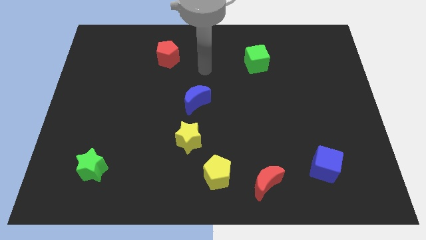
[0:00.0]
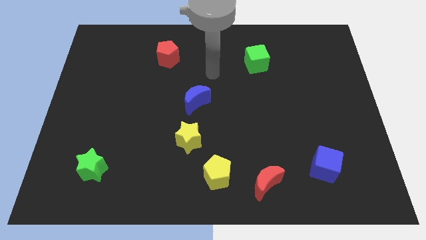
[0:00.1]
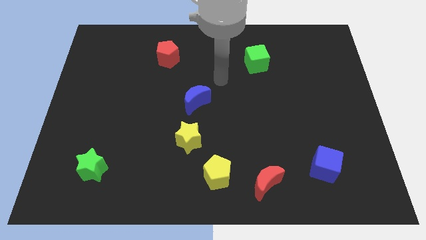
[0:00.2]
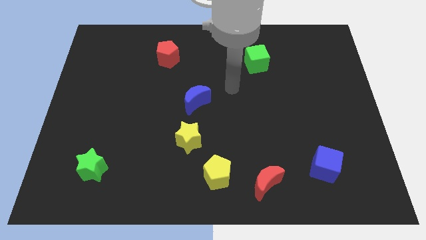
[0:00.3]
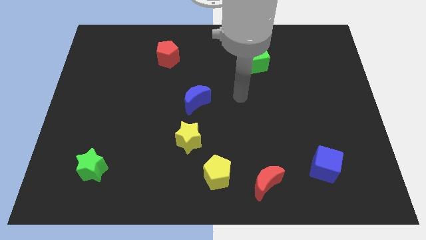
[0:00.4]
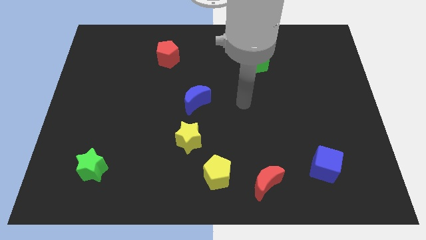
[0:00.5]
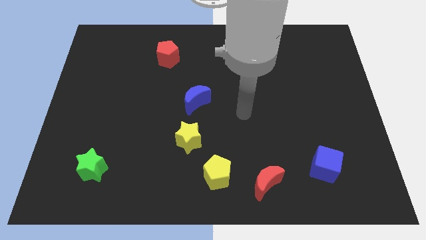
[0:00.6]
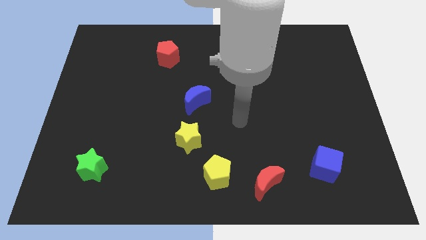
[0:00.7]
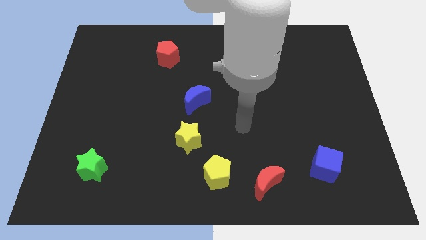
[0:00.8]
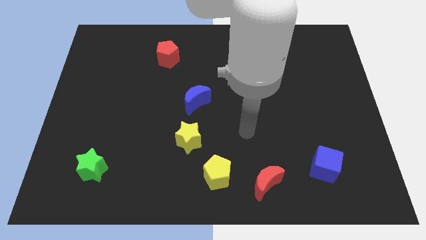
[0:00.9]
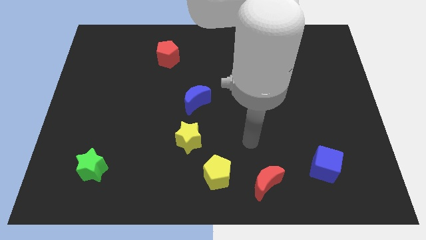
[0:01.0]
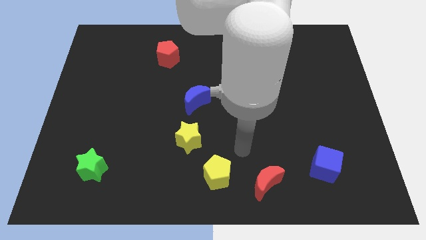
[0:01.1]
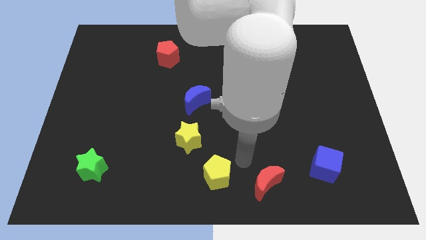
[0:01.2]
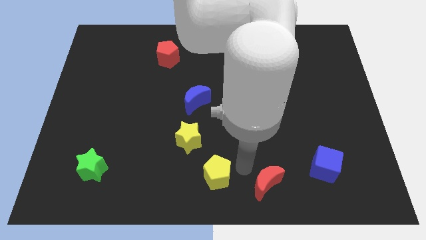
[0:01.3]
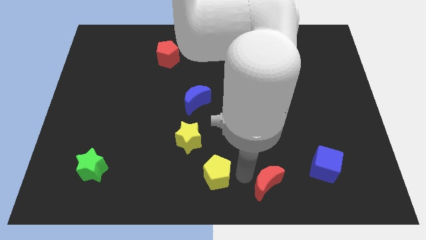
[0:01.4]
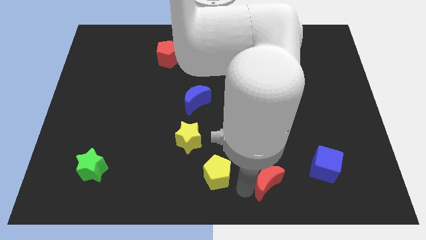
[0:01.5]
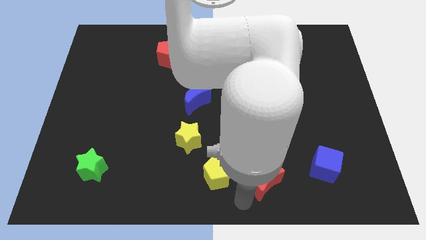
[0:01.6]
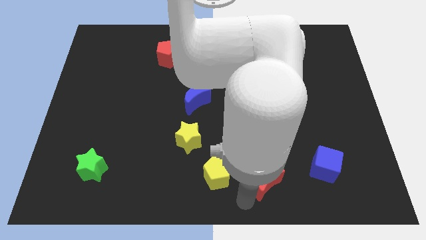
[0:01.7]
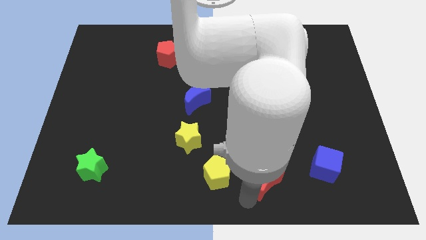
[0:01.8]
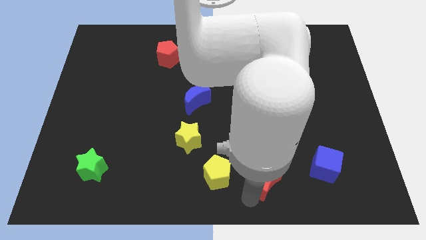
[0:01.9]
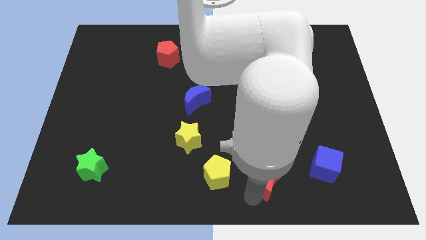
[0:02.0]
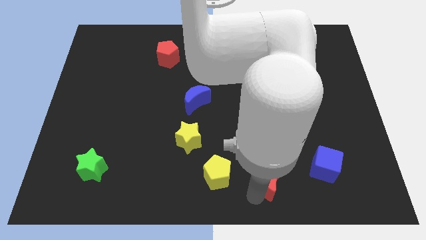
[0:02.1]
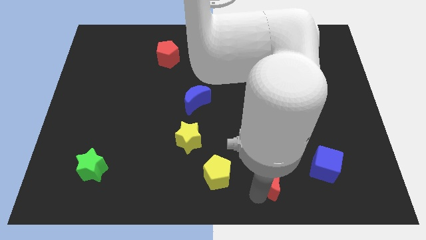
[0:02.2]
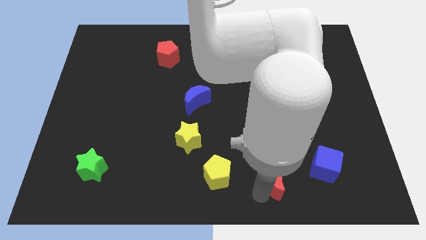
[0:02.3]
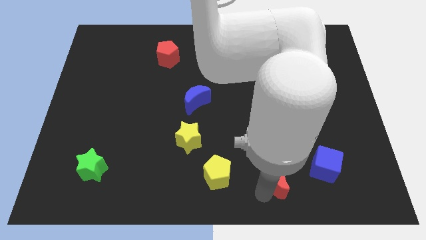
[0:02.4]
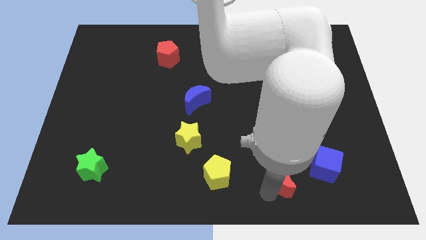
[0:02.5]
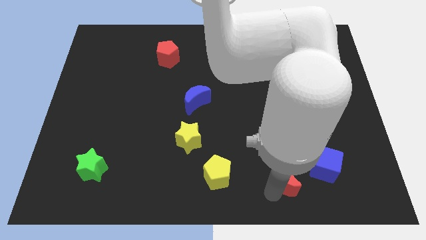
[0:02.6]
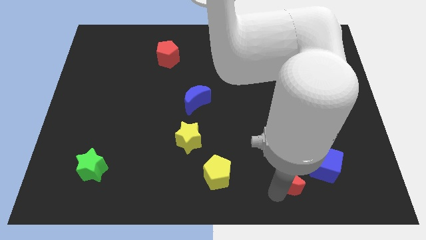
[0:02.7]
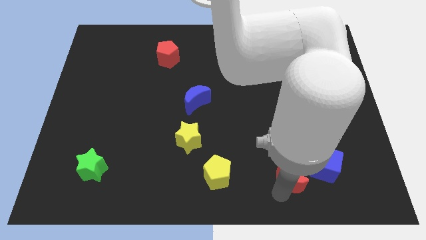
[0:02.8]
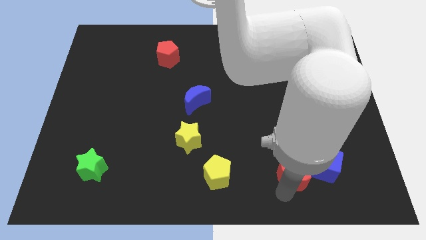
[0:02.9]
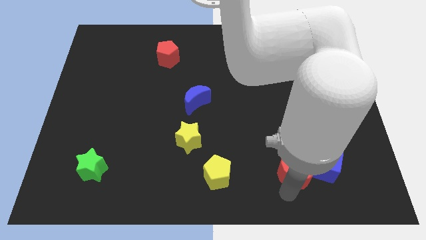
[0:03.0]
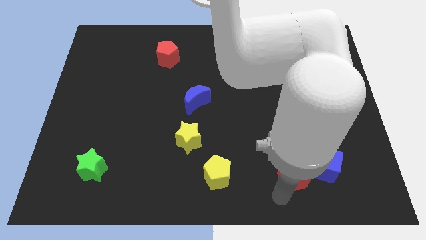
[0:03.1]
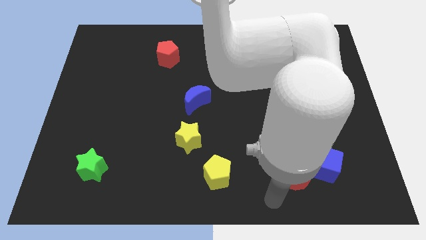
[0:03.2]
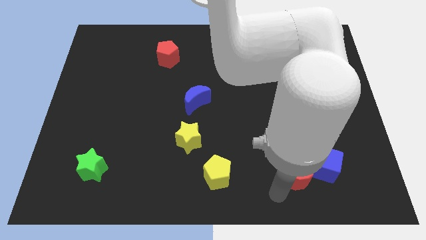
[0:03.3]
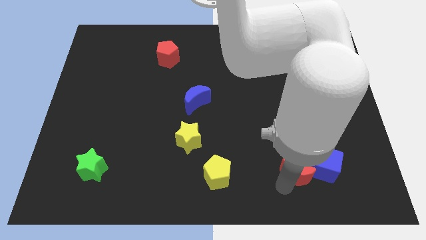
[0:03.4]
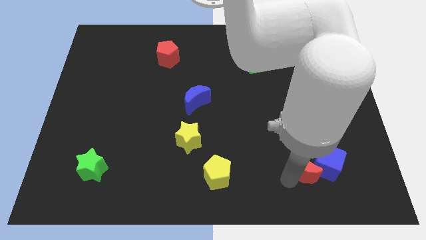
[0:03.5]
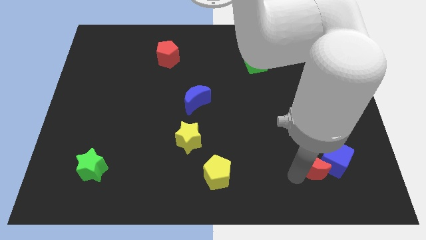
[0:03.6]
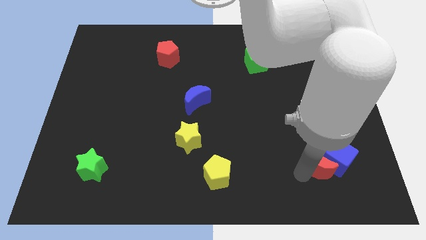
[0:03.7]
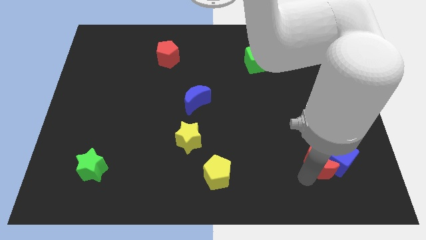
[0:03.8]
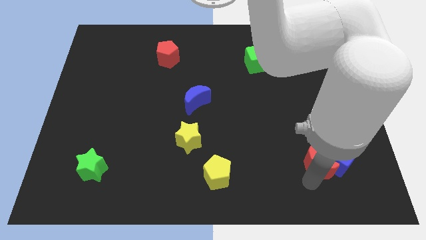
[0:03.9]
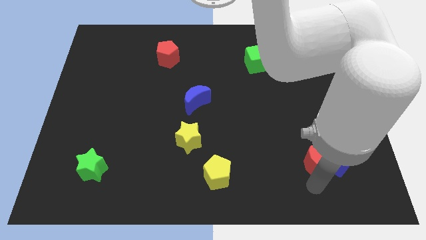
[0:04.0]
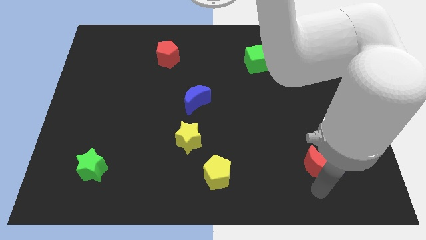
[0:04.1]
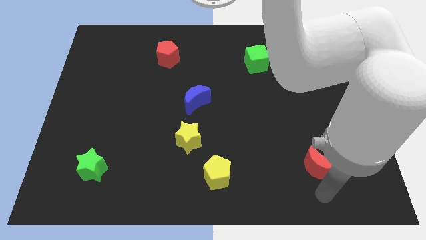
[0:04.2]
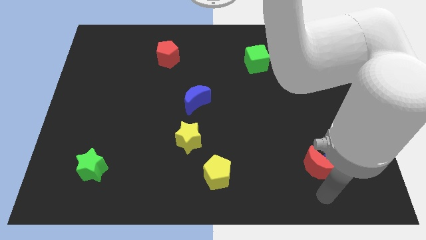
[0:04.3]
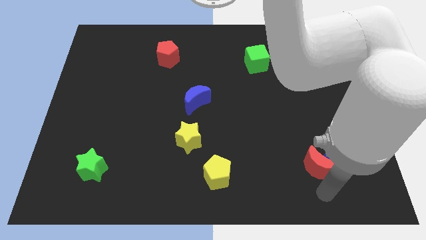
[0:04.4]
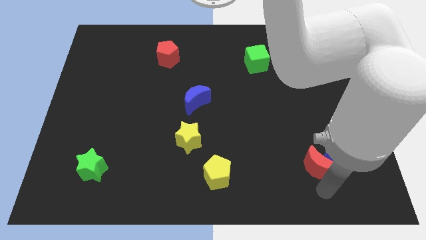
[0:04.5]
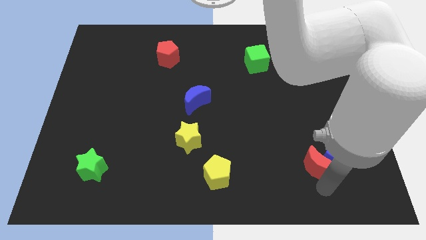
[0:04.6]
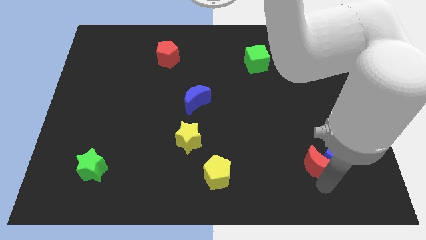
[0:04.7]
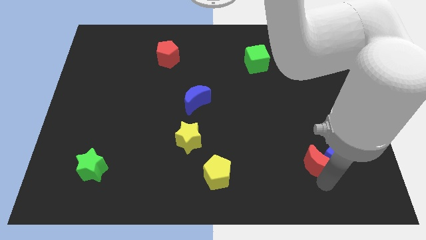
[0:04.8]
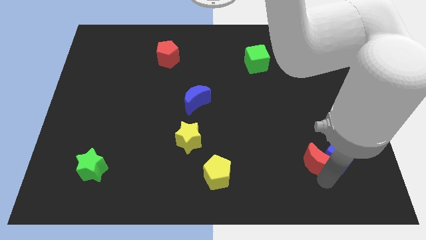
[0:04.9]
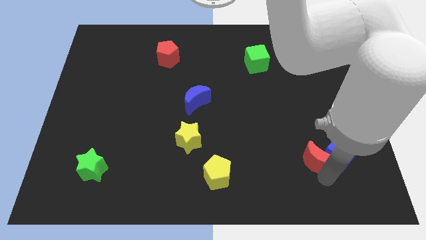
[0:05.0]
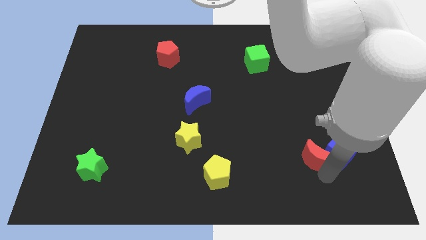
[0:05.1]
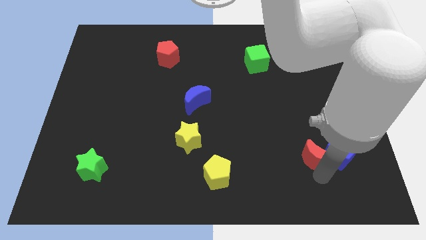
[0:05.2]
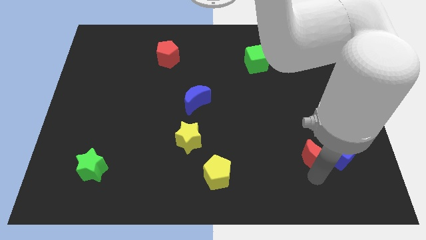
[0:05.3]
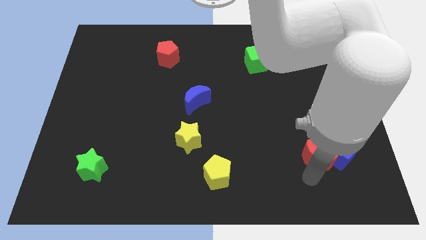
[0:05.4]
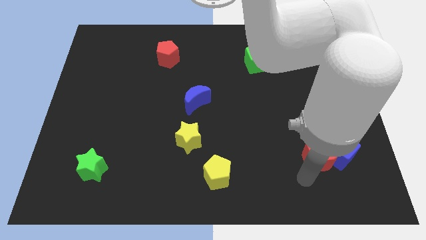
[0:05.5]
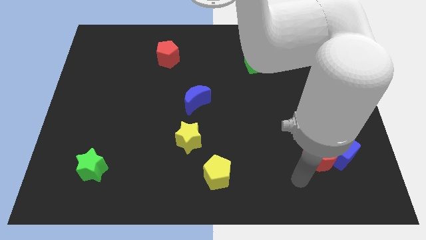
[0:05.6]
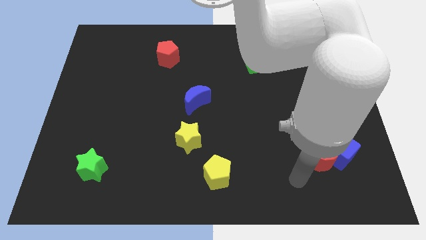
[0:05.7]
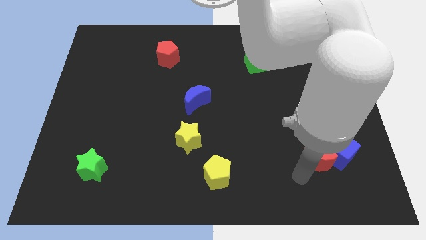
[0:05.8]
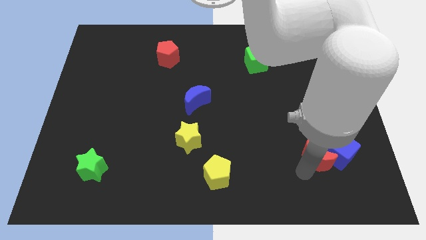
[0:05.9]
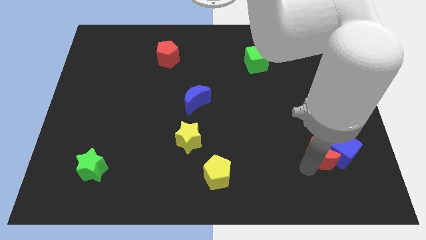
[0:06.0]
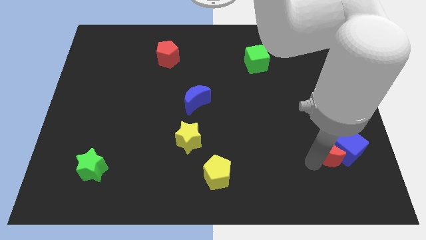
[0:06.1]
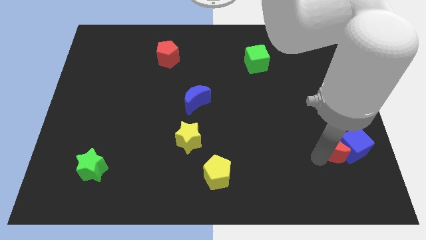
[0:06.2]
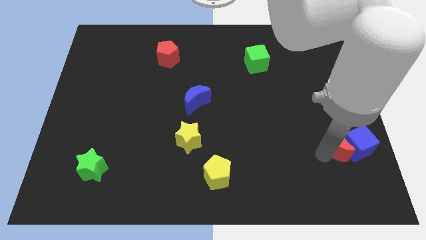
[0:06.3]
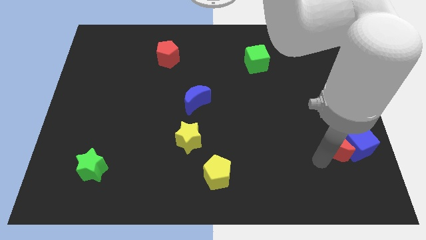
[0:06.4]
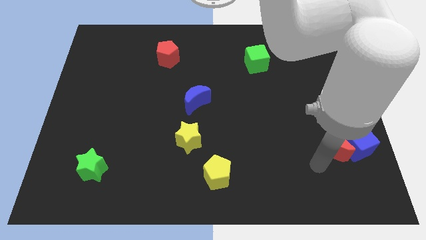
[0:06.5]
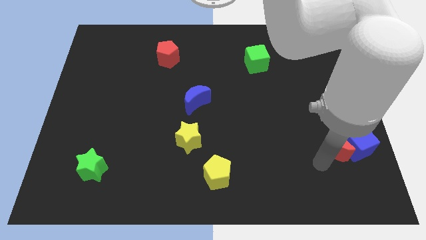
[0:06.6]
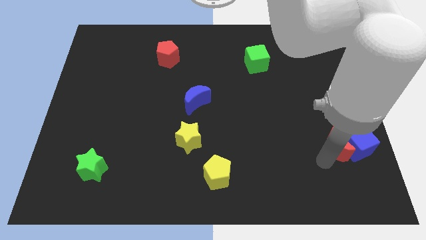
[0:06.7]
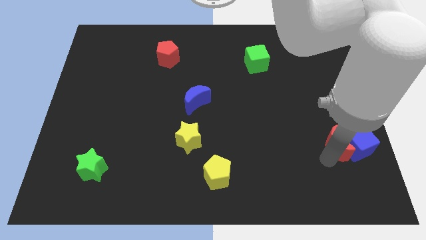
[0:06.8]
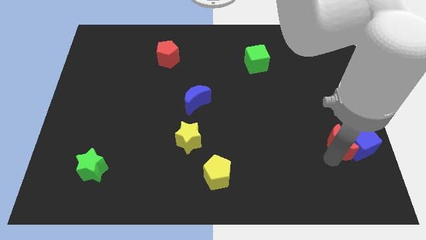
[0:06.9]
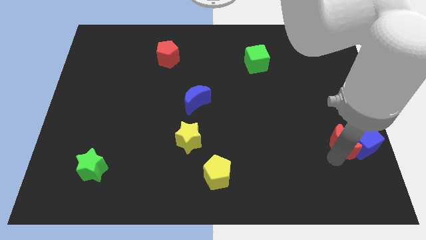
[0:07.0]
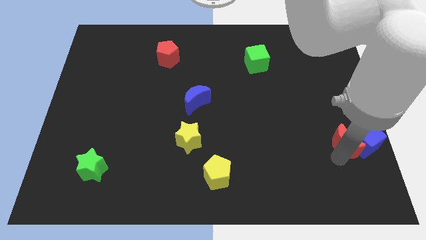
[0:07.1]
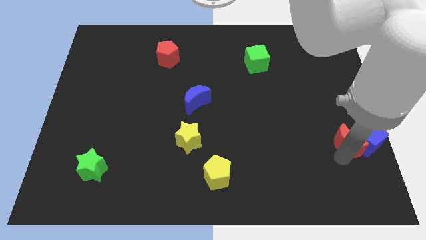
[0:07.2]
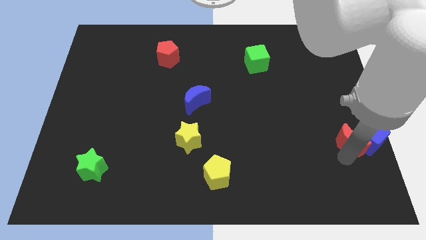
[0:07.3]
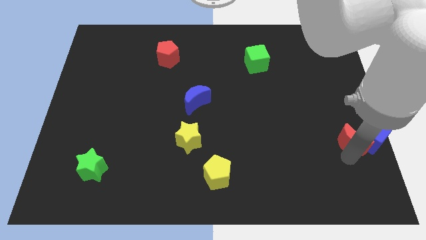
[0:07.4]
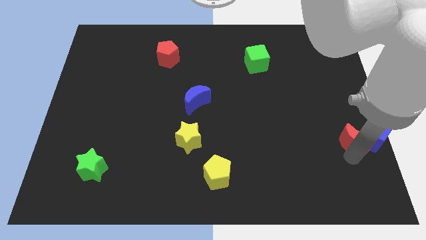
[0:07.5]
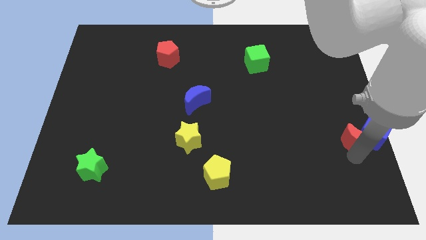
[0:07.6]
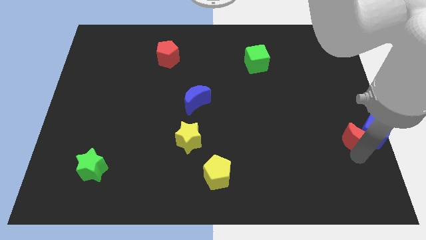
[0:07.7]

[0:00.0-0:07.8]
push the red moon to the center right
